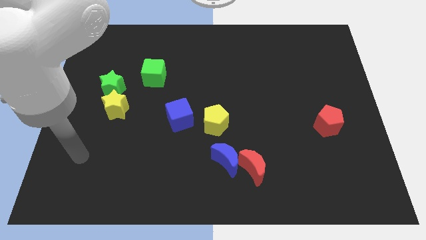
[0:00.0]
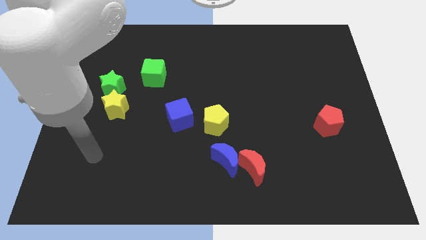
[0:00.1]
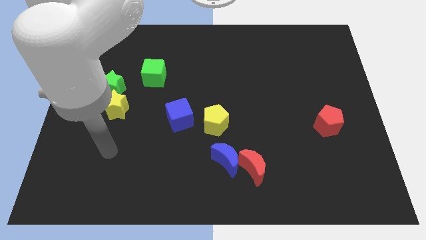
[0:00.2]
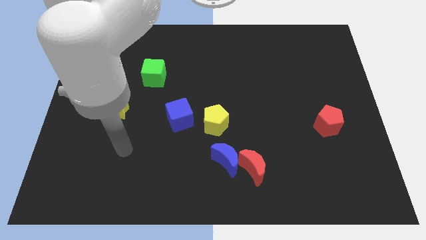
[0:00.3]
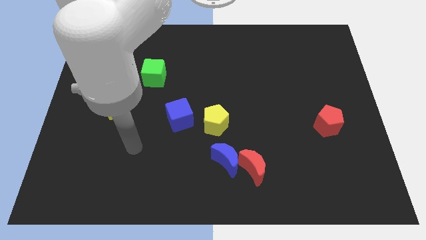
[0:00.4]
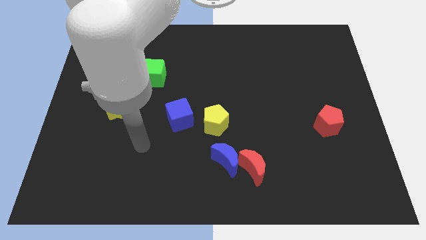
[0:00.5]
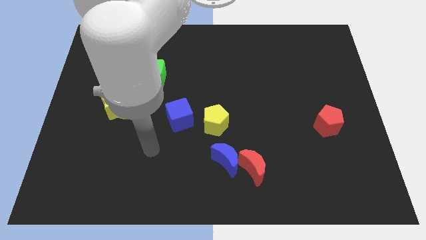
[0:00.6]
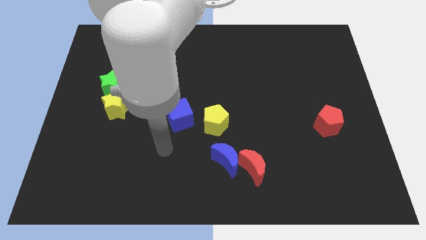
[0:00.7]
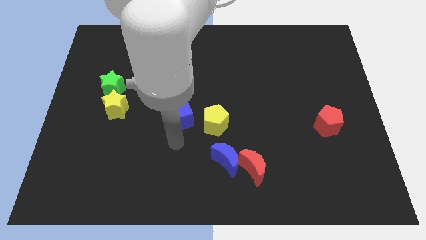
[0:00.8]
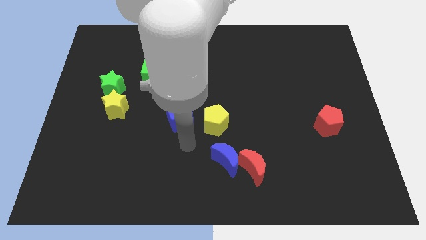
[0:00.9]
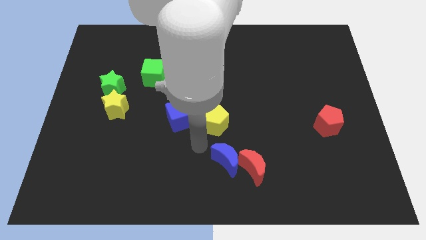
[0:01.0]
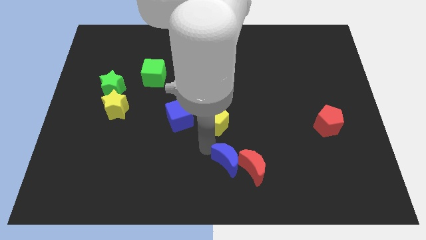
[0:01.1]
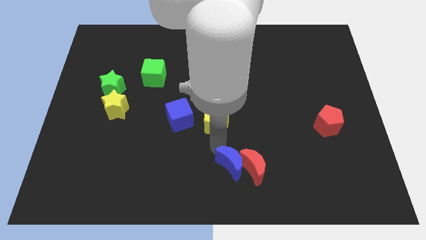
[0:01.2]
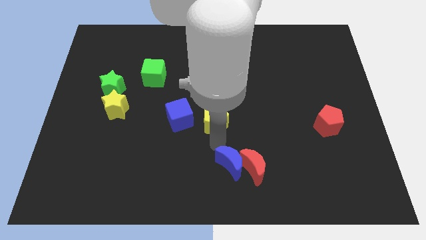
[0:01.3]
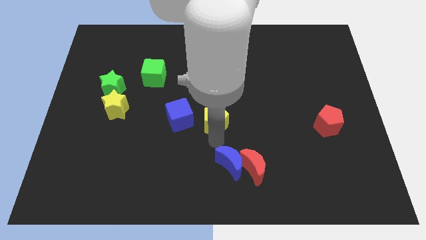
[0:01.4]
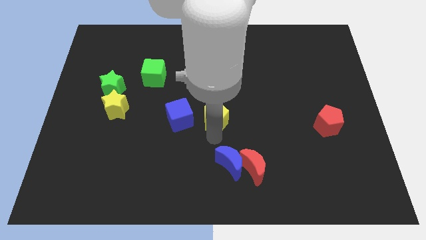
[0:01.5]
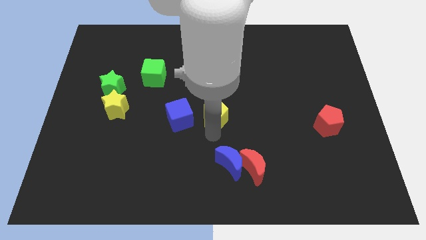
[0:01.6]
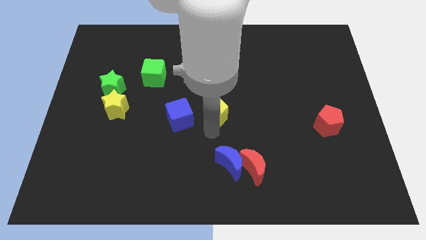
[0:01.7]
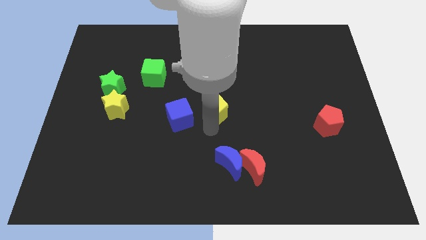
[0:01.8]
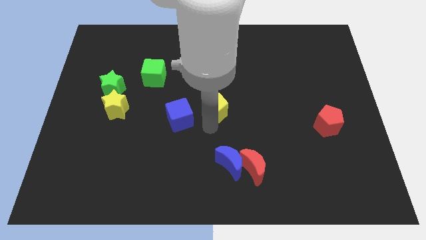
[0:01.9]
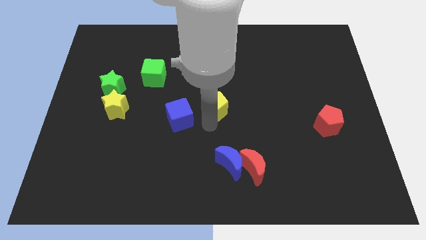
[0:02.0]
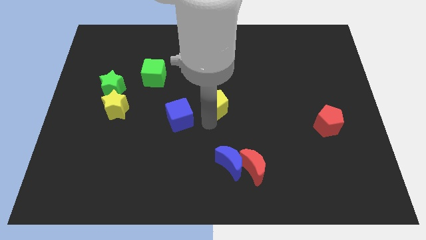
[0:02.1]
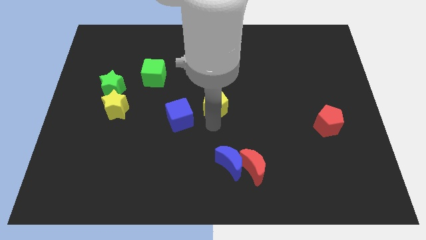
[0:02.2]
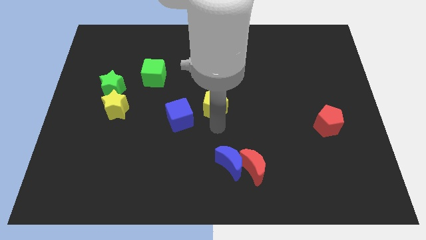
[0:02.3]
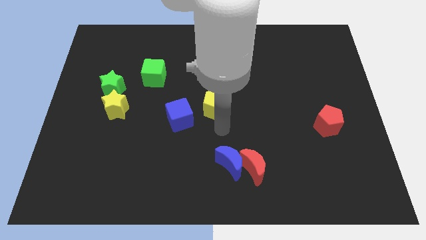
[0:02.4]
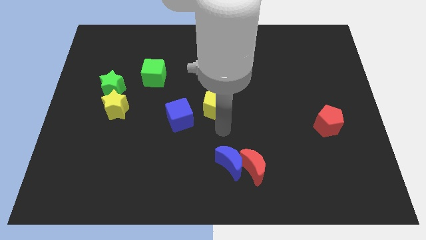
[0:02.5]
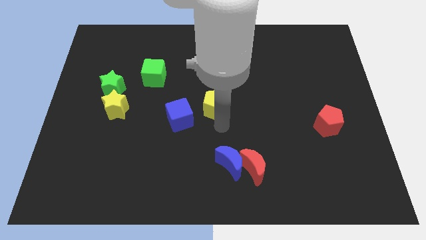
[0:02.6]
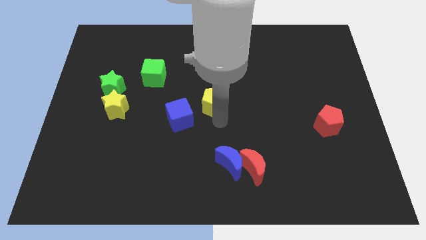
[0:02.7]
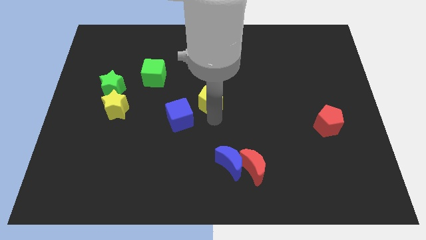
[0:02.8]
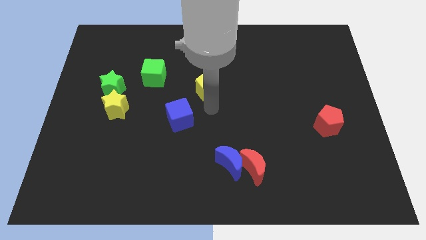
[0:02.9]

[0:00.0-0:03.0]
push the yellow pentagon a little bit upwards

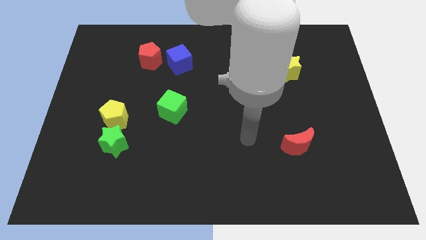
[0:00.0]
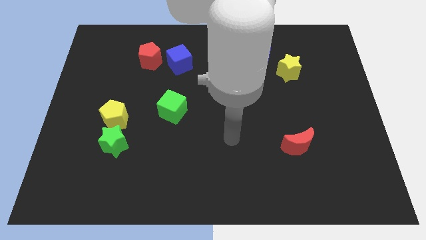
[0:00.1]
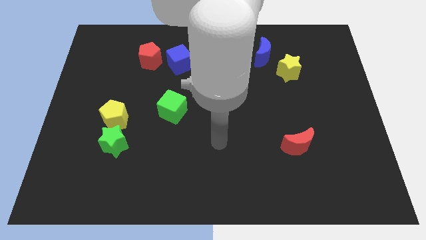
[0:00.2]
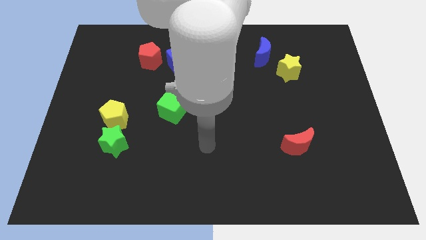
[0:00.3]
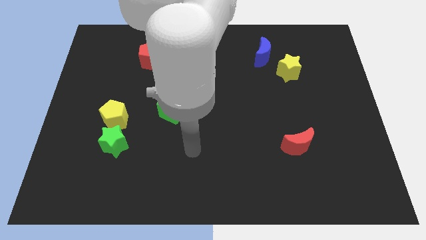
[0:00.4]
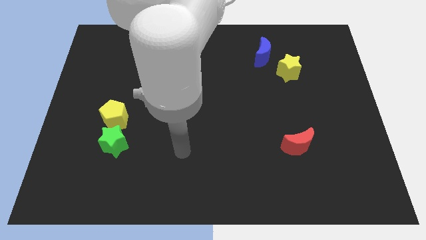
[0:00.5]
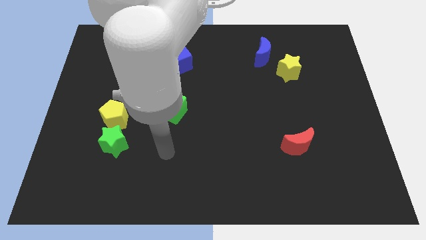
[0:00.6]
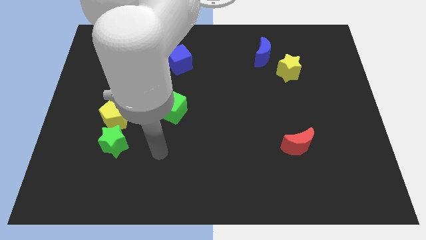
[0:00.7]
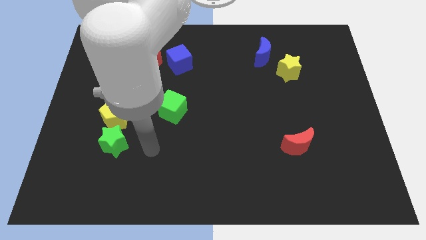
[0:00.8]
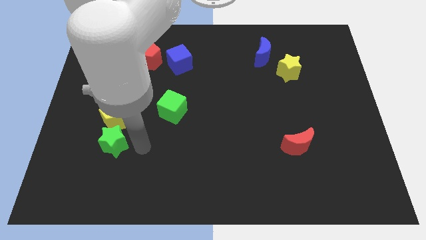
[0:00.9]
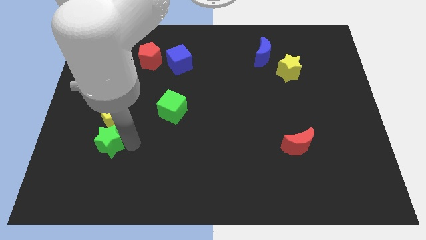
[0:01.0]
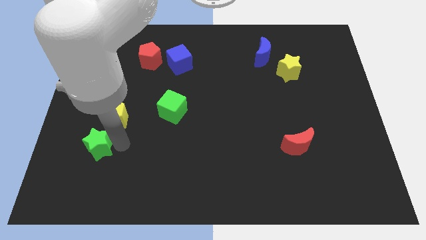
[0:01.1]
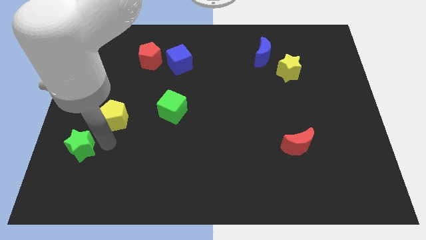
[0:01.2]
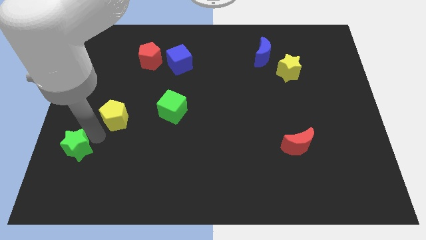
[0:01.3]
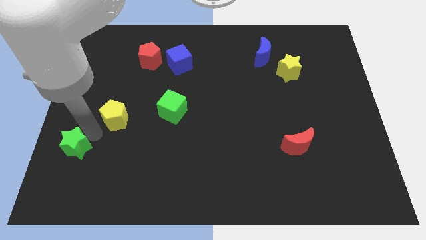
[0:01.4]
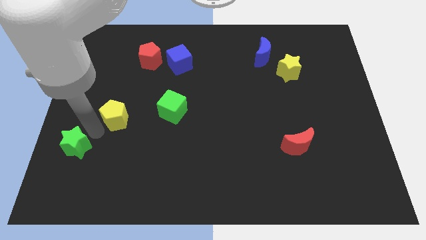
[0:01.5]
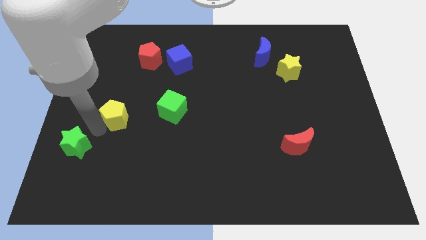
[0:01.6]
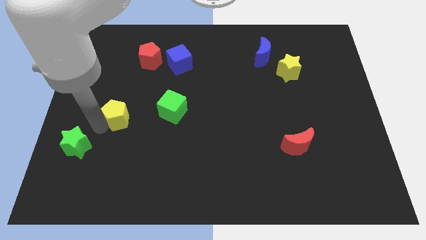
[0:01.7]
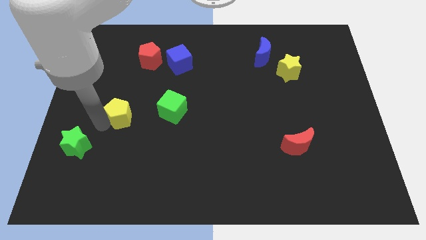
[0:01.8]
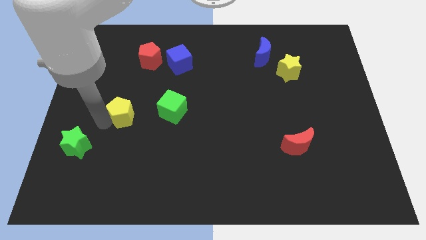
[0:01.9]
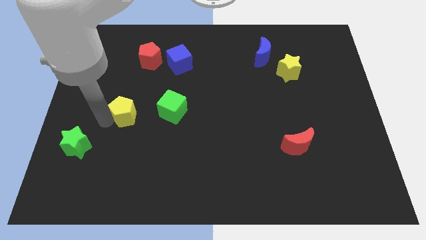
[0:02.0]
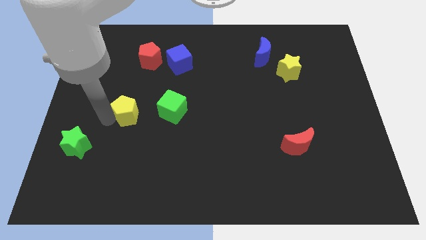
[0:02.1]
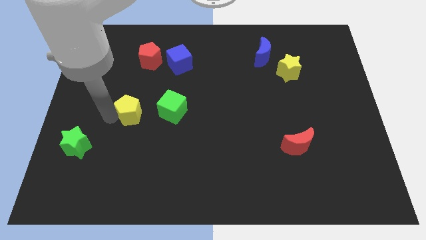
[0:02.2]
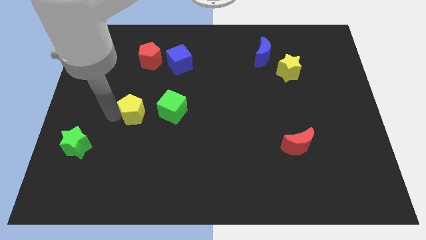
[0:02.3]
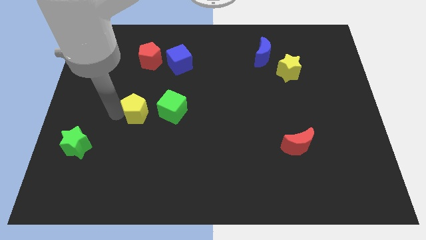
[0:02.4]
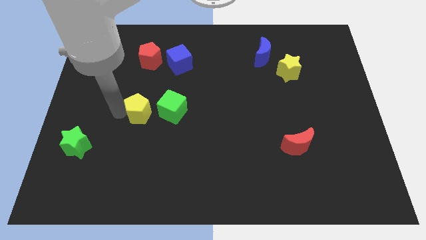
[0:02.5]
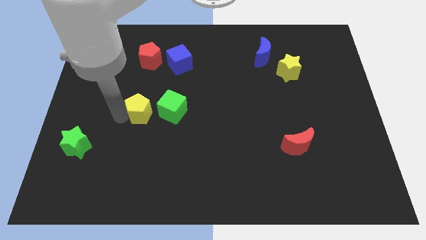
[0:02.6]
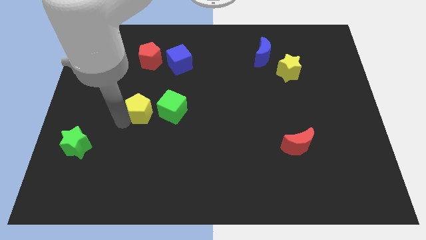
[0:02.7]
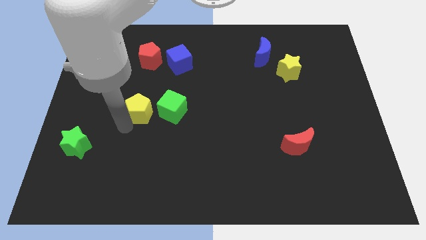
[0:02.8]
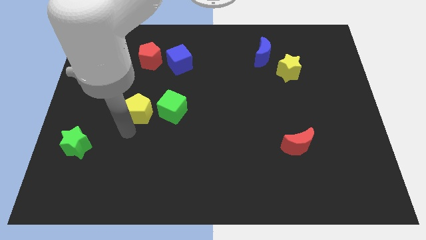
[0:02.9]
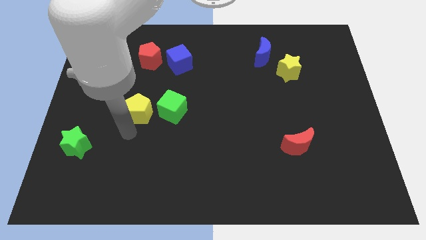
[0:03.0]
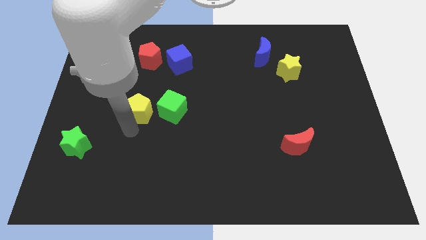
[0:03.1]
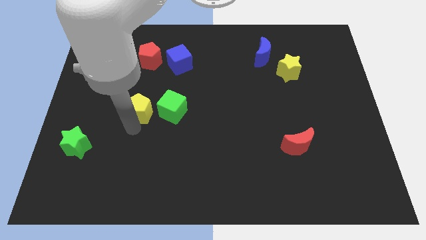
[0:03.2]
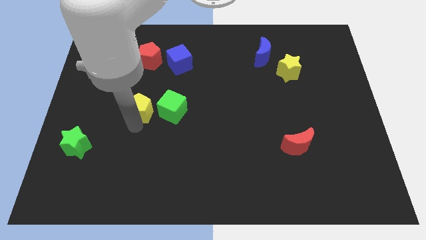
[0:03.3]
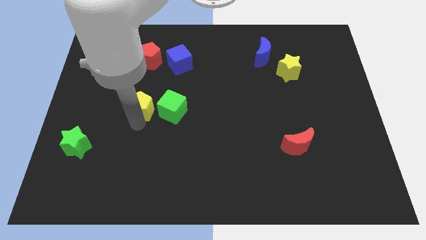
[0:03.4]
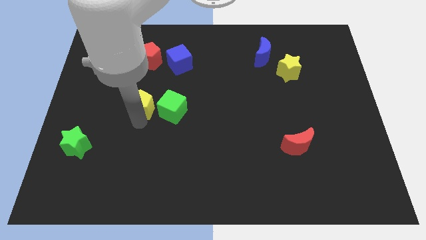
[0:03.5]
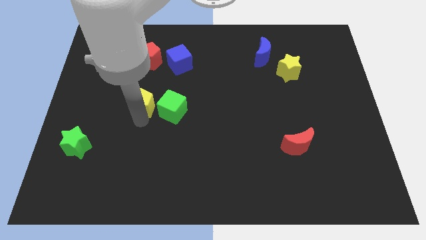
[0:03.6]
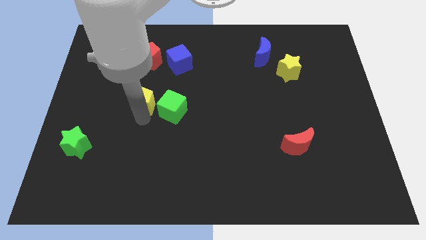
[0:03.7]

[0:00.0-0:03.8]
slide the yellow pentagon up and to the right a little

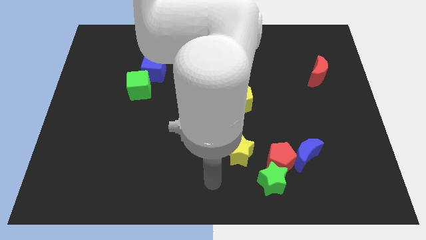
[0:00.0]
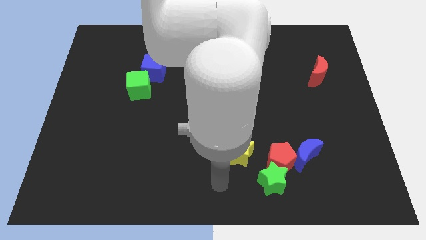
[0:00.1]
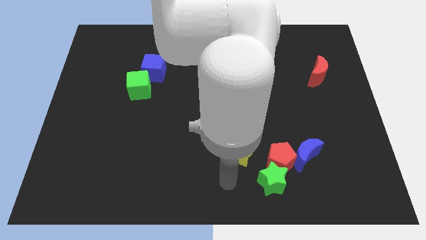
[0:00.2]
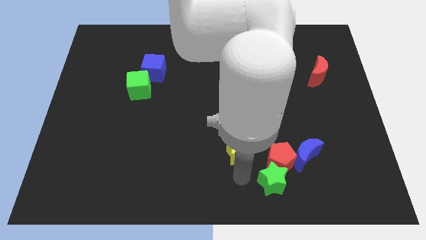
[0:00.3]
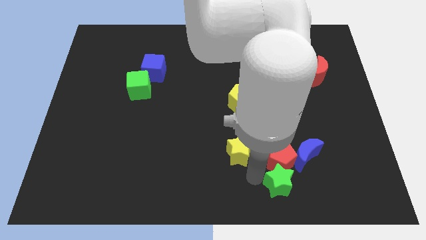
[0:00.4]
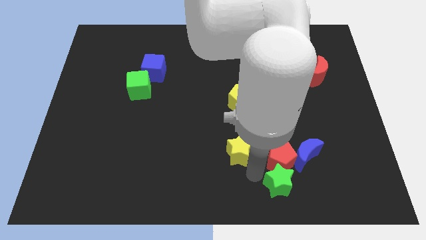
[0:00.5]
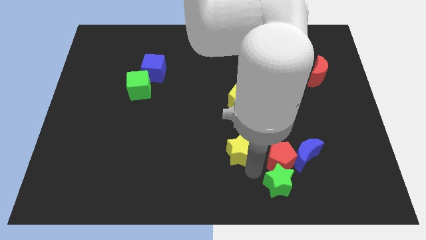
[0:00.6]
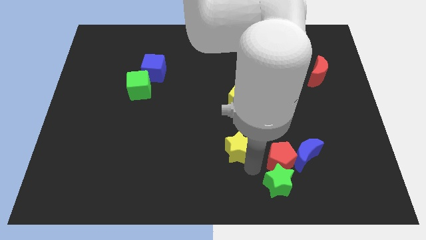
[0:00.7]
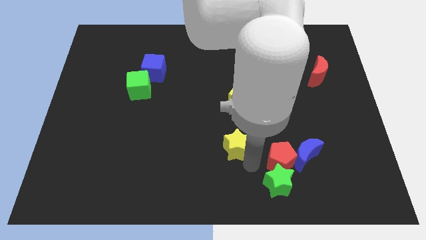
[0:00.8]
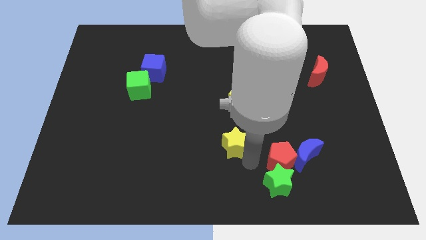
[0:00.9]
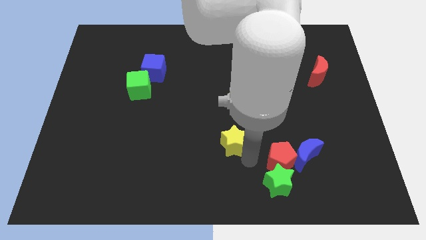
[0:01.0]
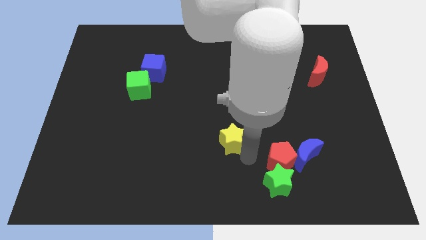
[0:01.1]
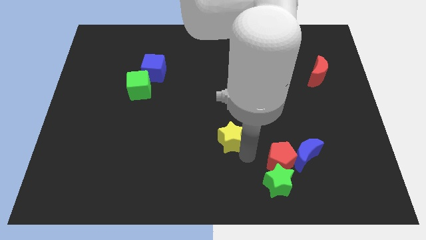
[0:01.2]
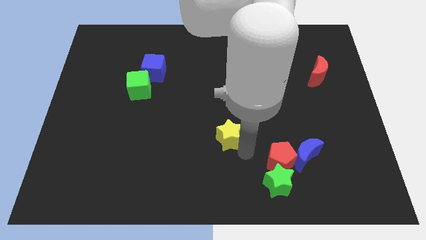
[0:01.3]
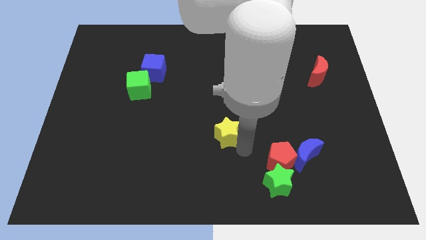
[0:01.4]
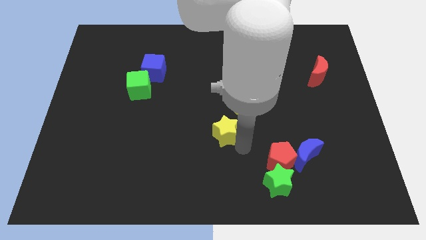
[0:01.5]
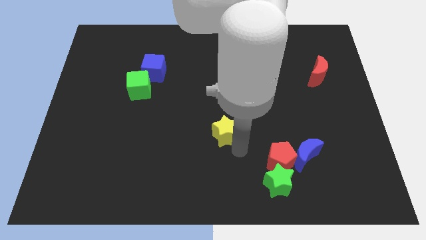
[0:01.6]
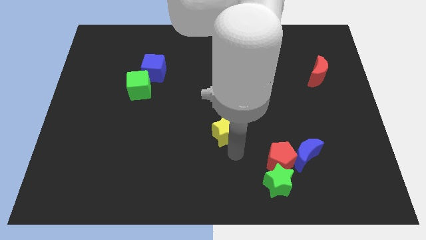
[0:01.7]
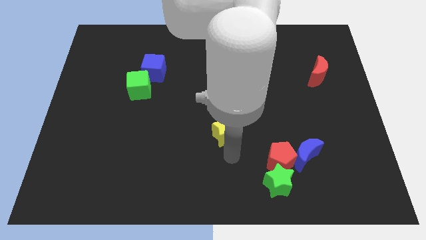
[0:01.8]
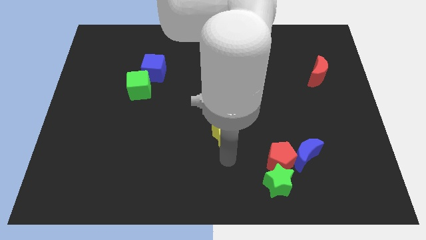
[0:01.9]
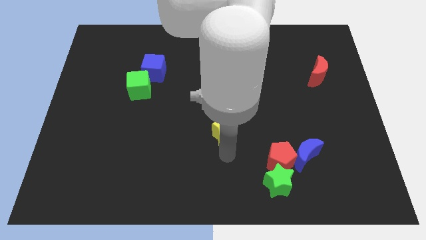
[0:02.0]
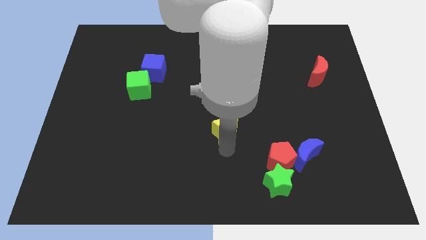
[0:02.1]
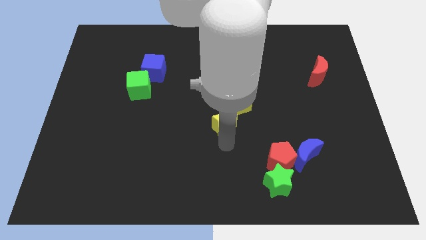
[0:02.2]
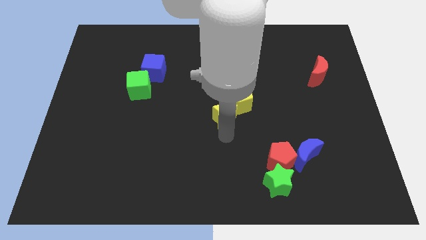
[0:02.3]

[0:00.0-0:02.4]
move the yellow star slightly up
